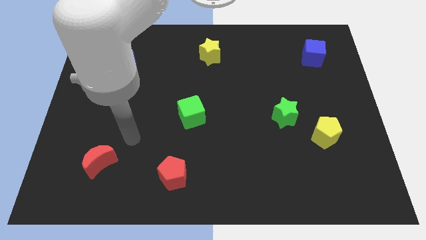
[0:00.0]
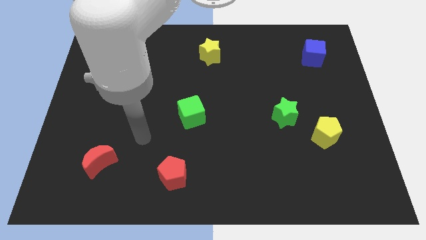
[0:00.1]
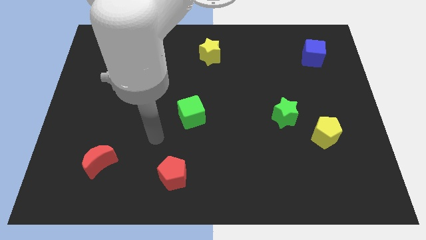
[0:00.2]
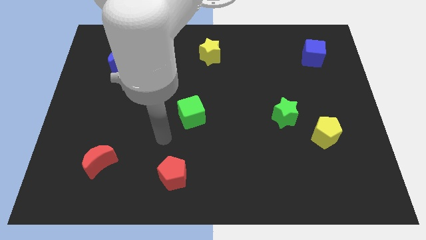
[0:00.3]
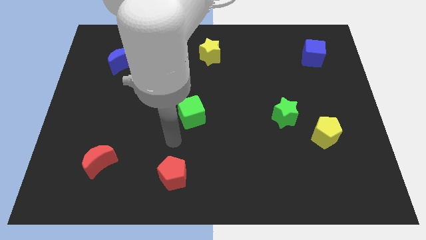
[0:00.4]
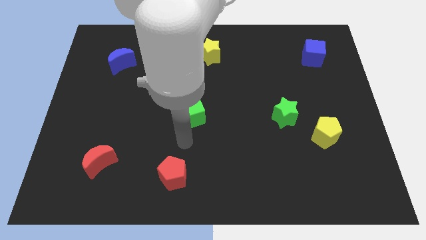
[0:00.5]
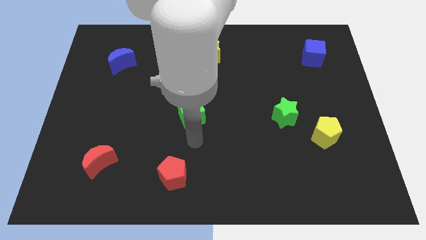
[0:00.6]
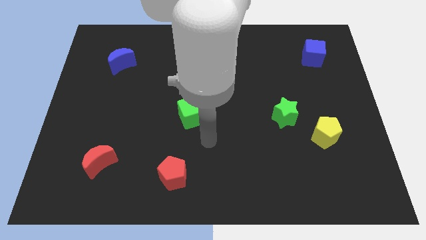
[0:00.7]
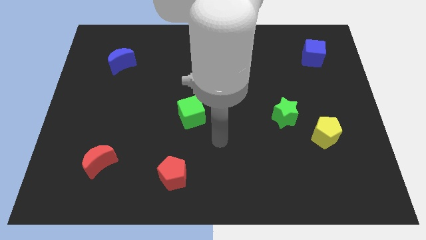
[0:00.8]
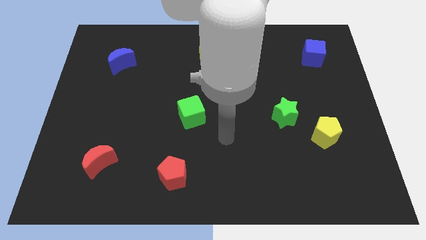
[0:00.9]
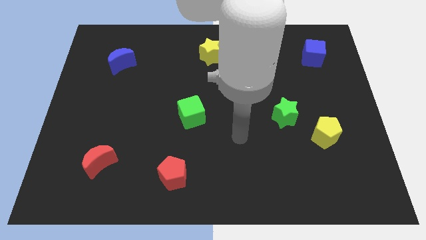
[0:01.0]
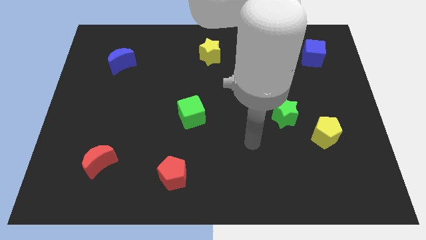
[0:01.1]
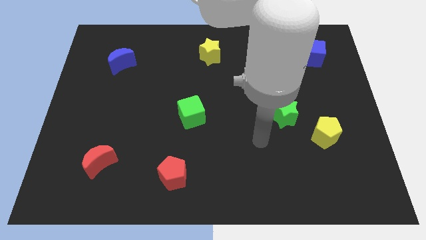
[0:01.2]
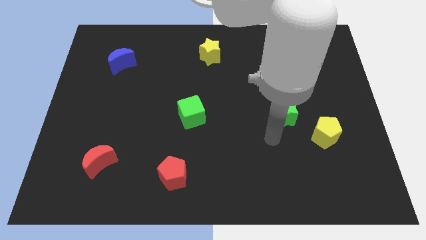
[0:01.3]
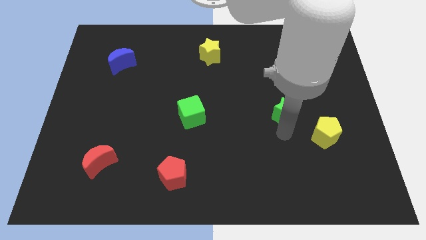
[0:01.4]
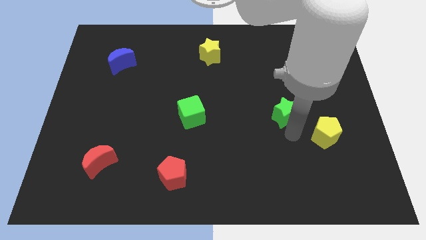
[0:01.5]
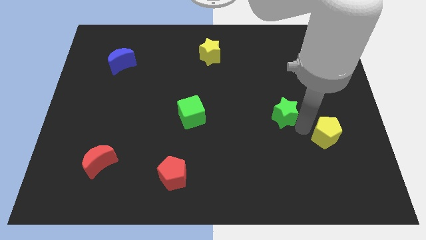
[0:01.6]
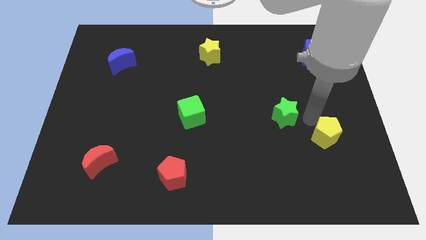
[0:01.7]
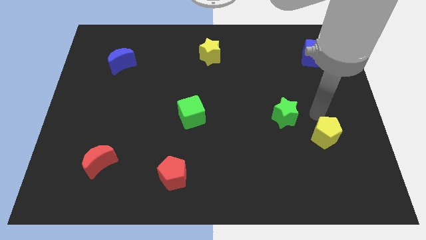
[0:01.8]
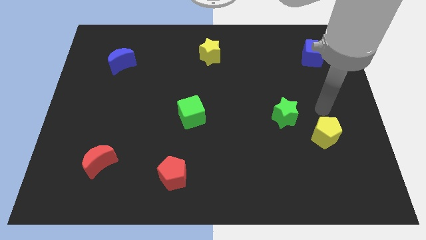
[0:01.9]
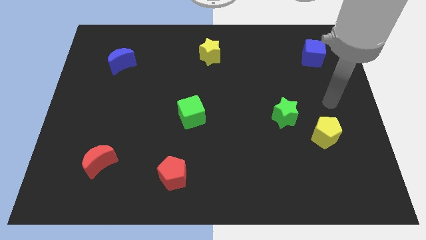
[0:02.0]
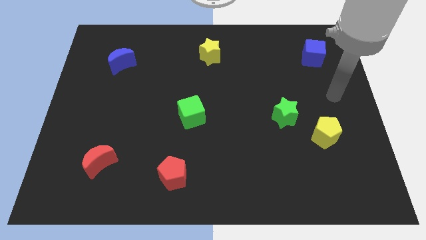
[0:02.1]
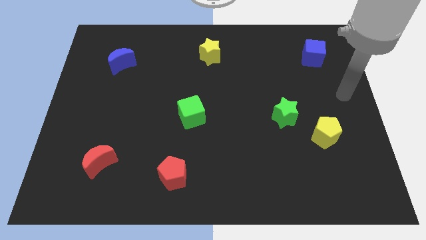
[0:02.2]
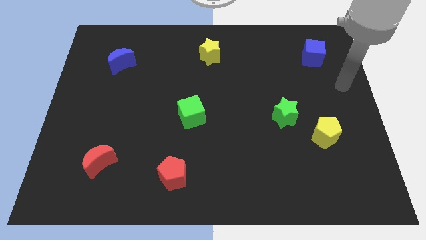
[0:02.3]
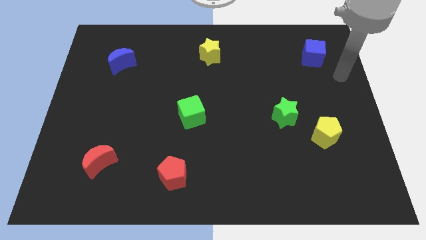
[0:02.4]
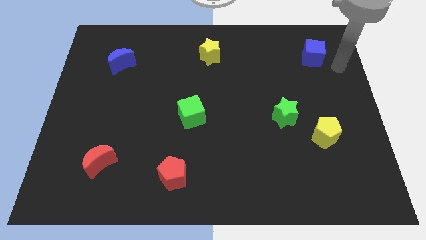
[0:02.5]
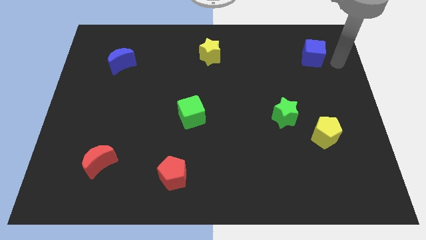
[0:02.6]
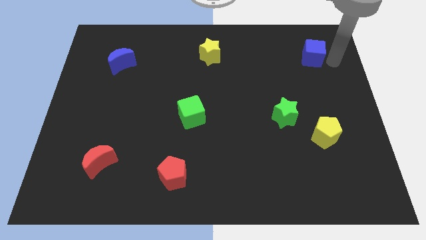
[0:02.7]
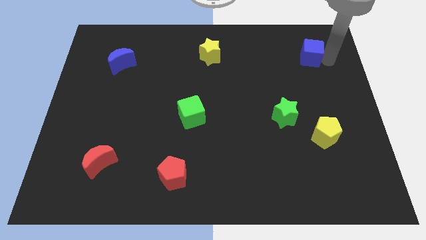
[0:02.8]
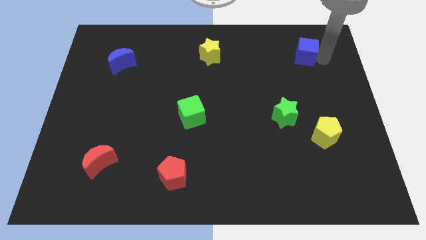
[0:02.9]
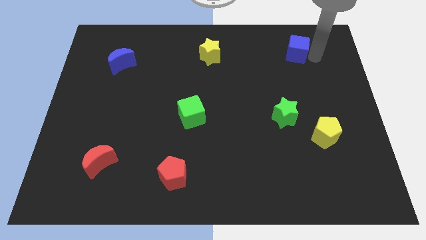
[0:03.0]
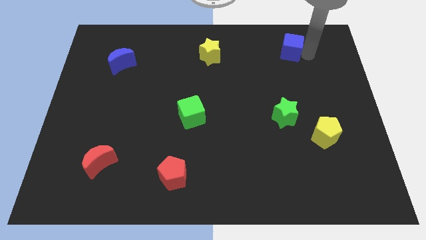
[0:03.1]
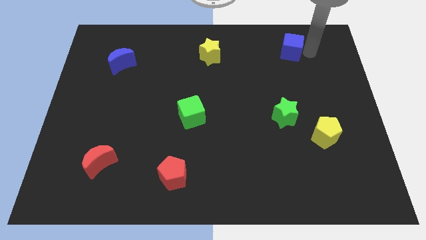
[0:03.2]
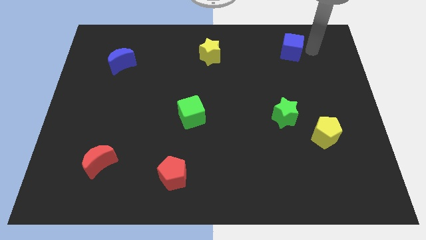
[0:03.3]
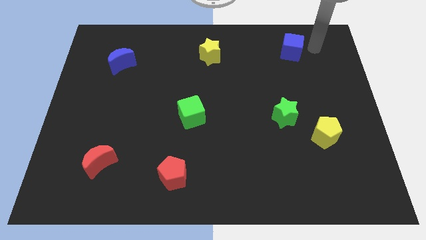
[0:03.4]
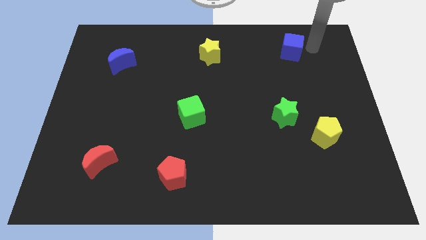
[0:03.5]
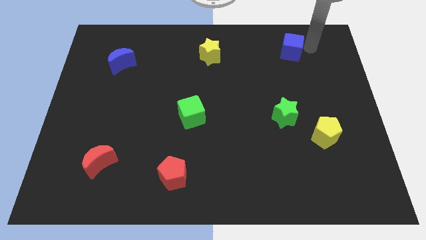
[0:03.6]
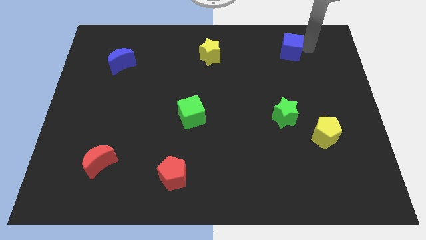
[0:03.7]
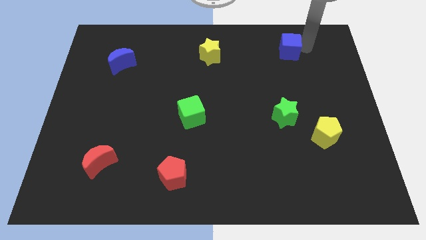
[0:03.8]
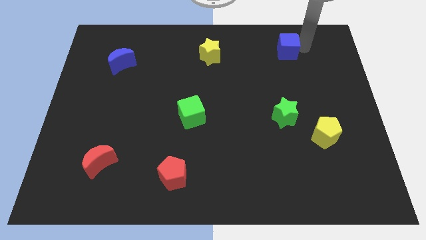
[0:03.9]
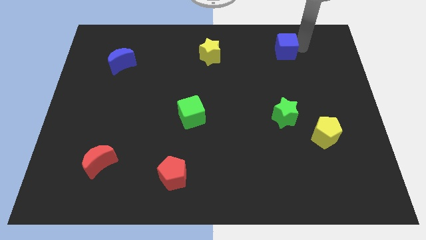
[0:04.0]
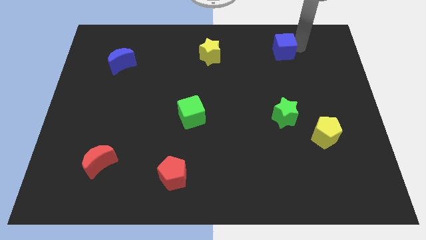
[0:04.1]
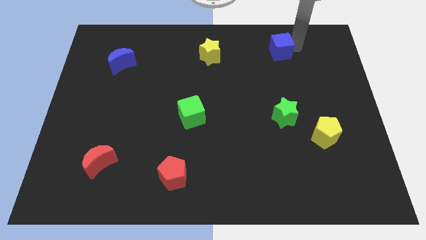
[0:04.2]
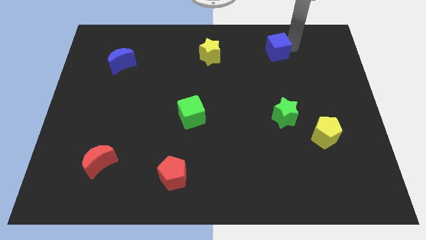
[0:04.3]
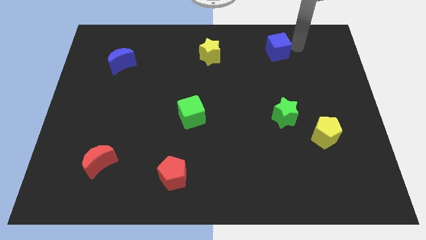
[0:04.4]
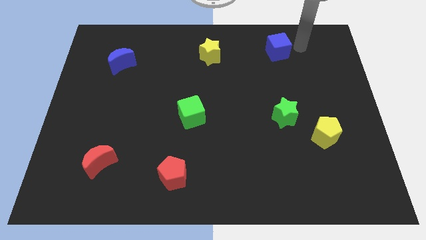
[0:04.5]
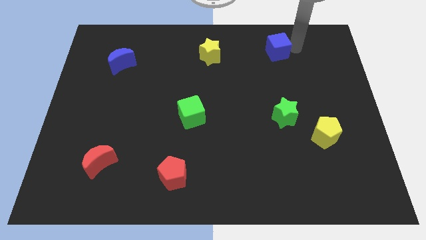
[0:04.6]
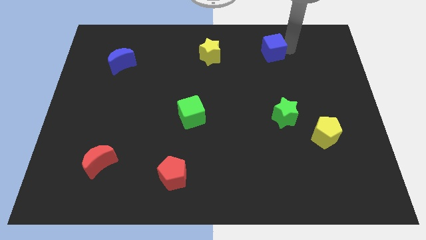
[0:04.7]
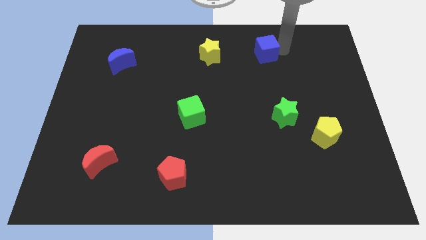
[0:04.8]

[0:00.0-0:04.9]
move the blue cube to the right of the yellow star

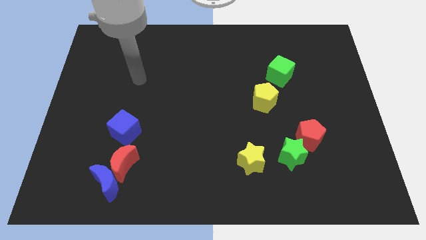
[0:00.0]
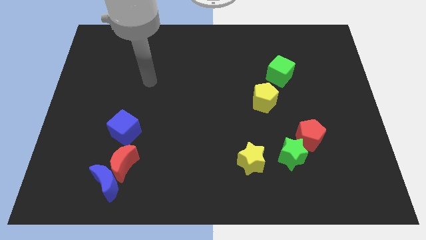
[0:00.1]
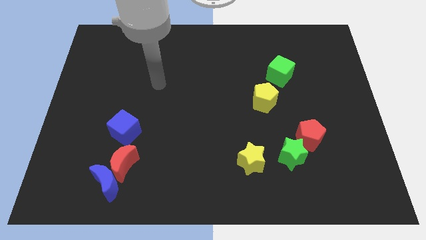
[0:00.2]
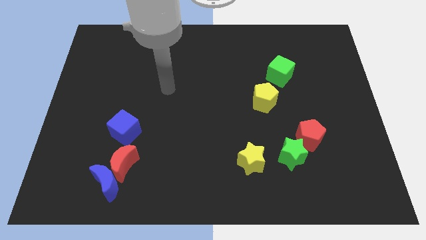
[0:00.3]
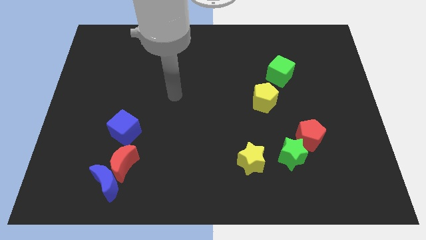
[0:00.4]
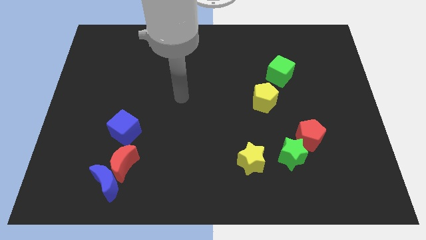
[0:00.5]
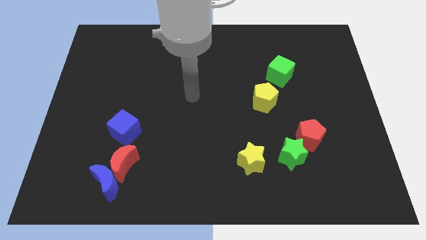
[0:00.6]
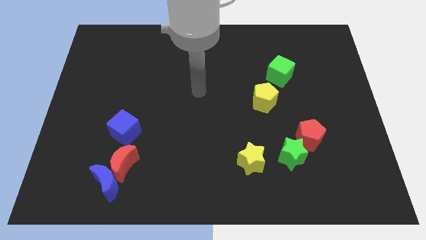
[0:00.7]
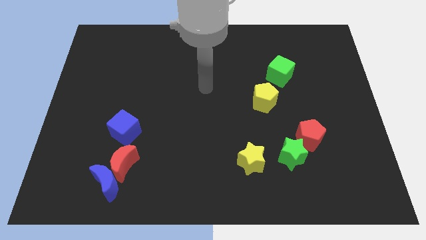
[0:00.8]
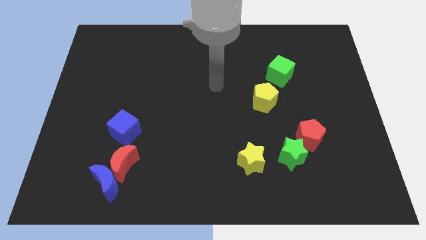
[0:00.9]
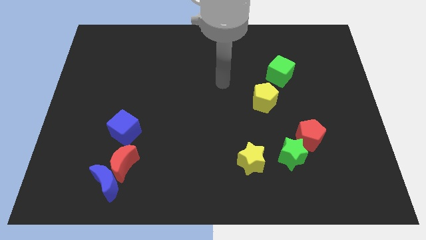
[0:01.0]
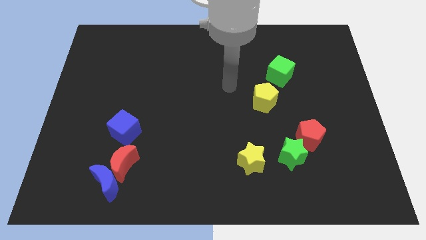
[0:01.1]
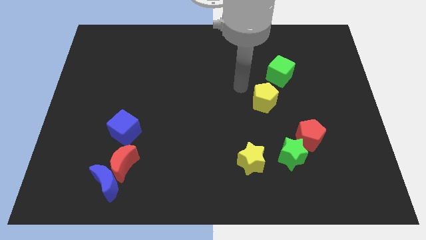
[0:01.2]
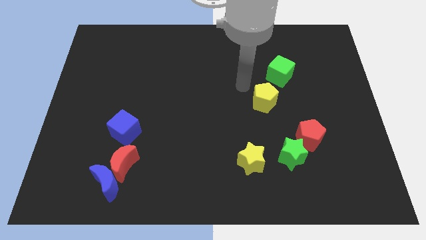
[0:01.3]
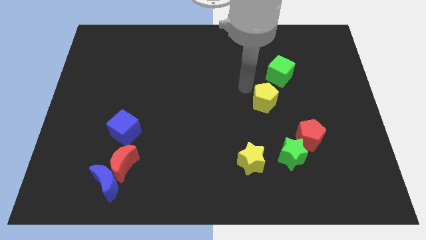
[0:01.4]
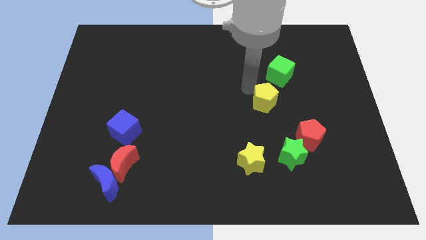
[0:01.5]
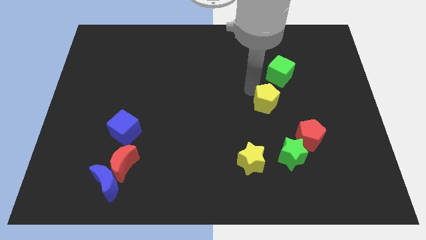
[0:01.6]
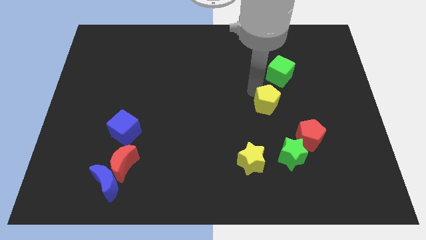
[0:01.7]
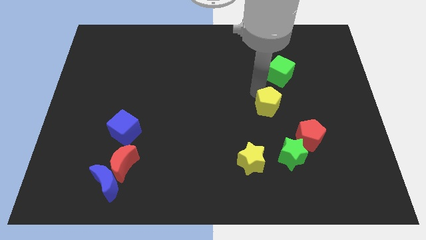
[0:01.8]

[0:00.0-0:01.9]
slide the yellow pentagon above the green star

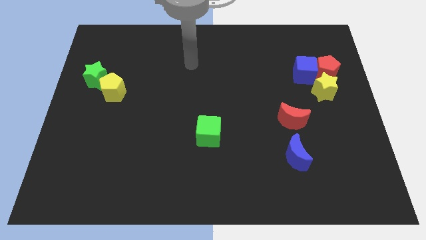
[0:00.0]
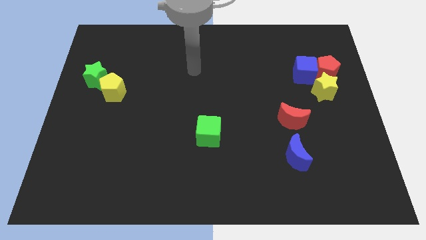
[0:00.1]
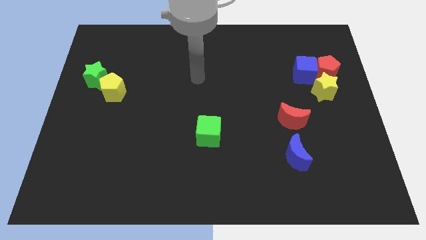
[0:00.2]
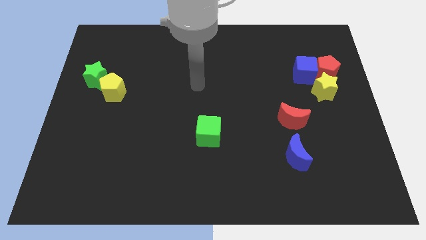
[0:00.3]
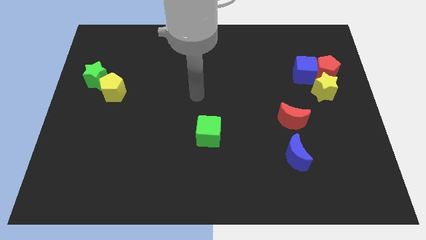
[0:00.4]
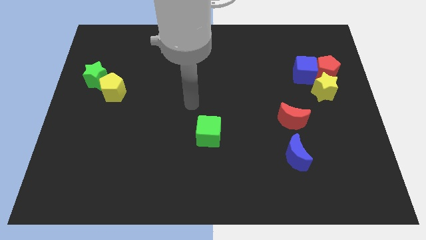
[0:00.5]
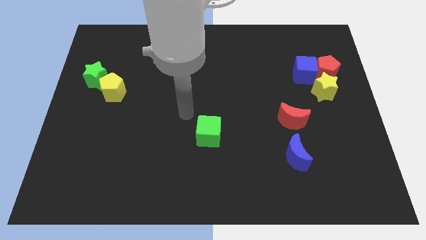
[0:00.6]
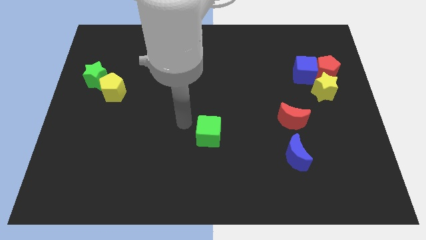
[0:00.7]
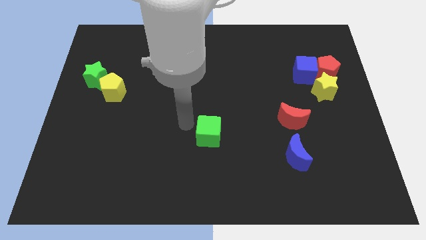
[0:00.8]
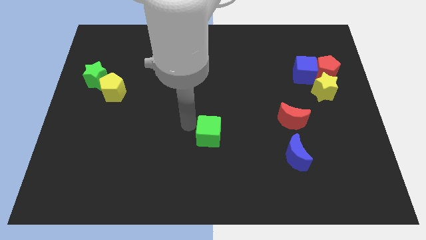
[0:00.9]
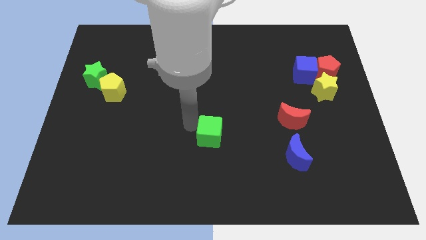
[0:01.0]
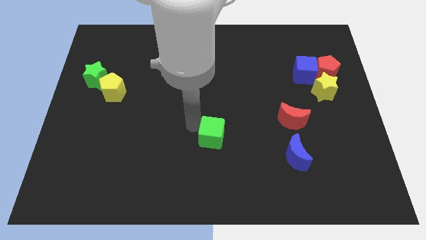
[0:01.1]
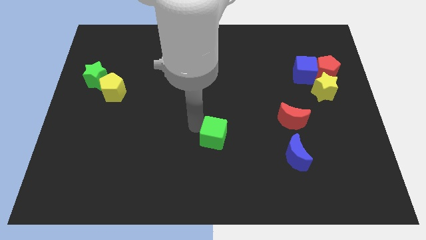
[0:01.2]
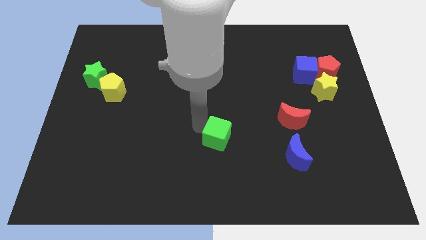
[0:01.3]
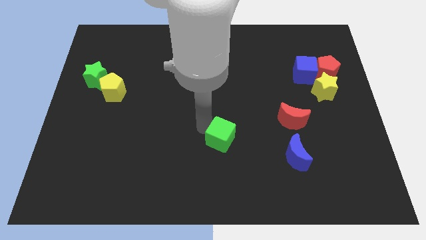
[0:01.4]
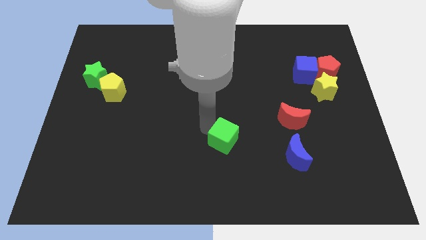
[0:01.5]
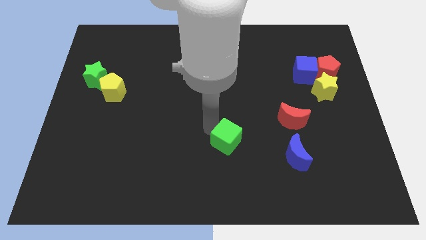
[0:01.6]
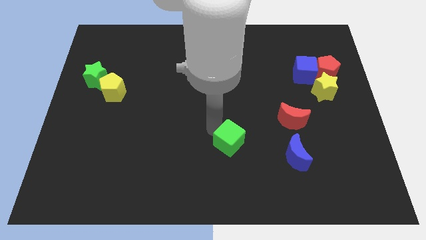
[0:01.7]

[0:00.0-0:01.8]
push the green cube to the left side of the blue moon
